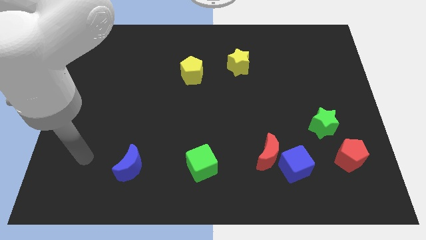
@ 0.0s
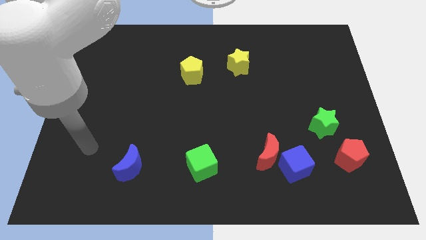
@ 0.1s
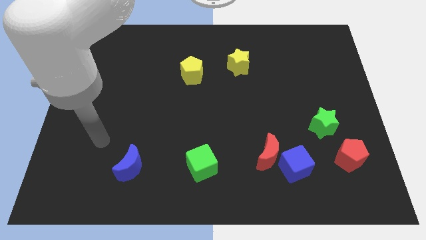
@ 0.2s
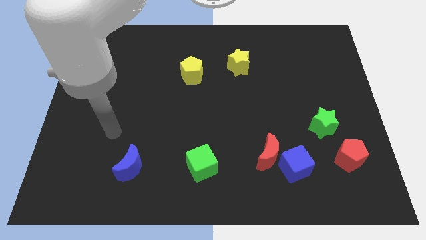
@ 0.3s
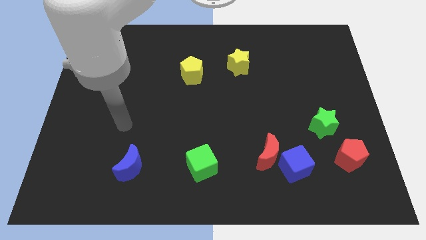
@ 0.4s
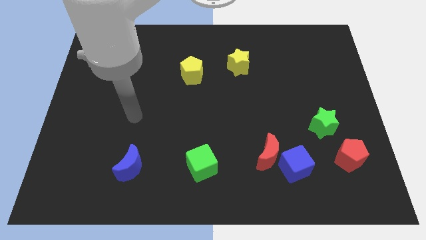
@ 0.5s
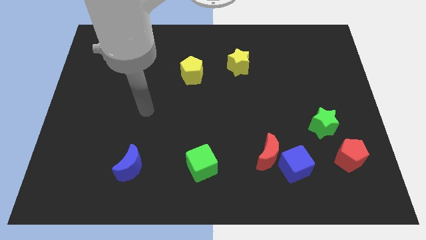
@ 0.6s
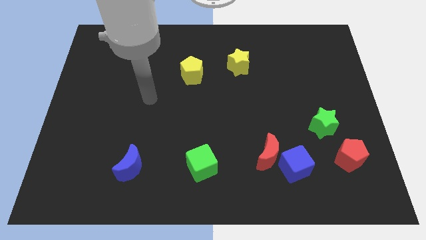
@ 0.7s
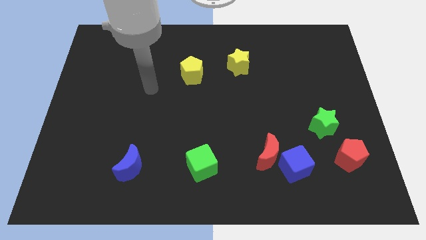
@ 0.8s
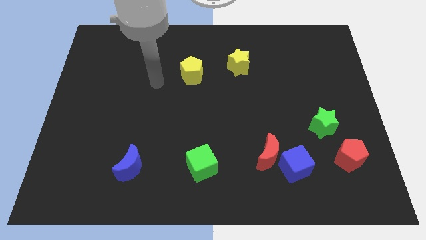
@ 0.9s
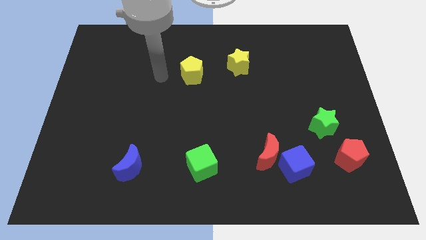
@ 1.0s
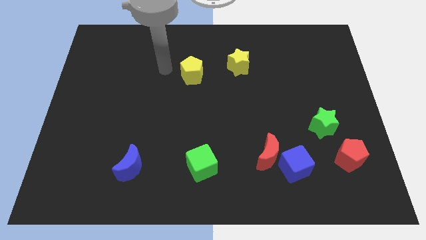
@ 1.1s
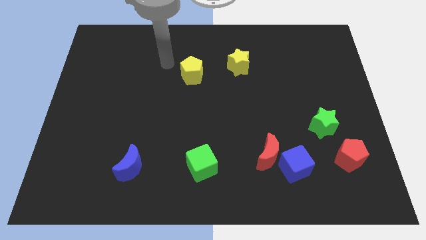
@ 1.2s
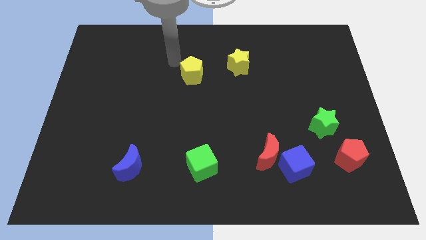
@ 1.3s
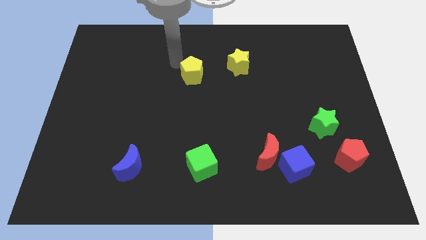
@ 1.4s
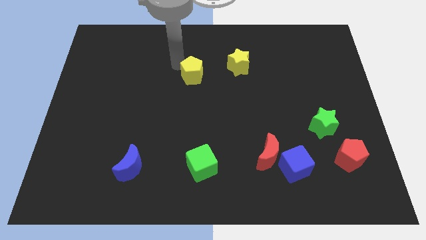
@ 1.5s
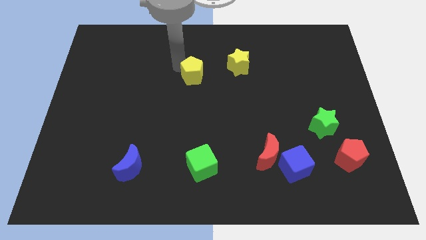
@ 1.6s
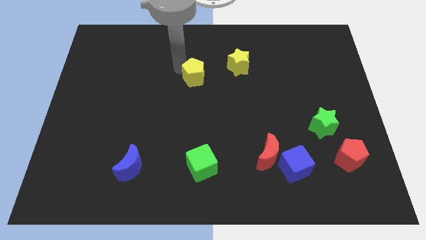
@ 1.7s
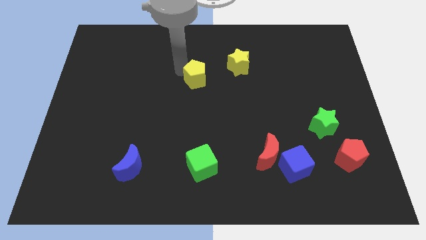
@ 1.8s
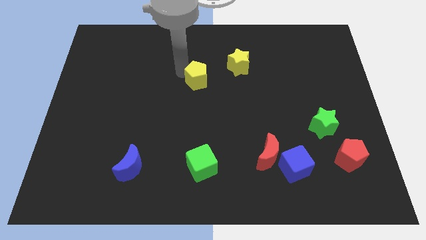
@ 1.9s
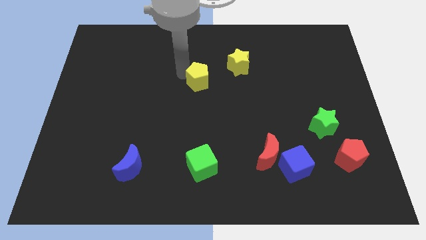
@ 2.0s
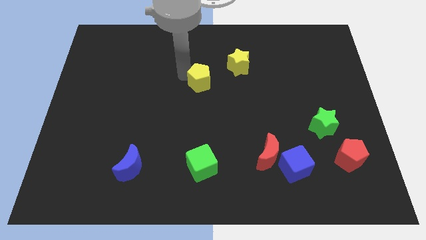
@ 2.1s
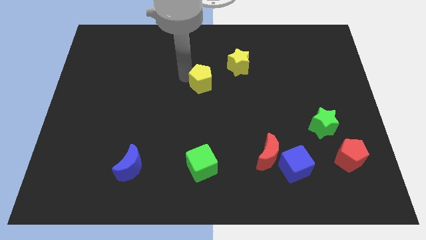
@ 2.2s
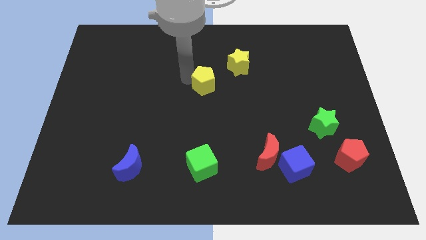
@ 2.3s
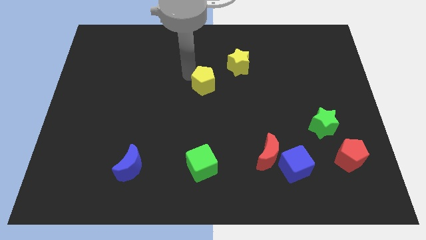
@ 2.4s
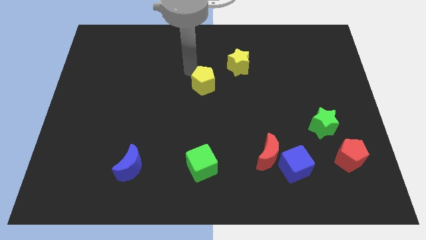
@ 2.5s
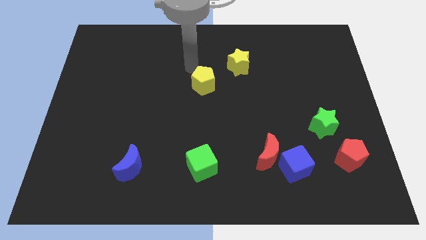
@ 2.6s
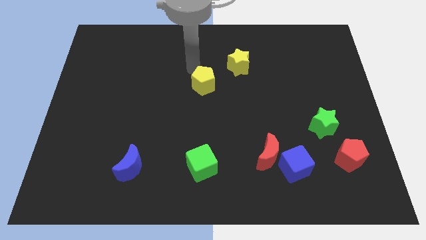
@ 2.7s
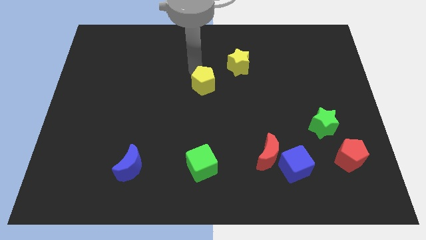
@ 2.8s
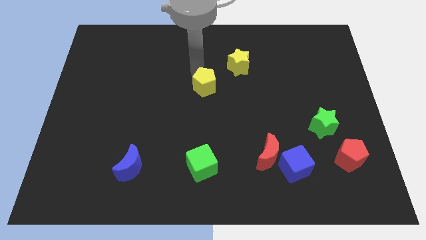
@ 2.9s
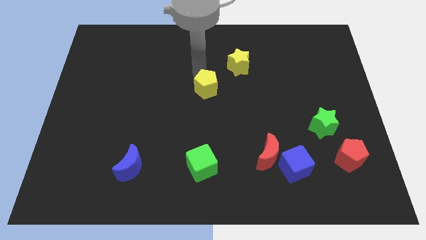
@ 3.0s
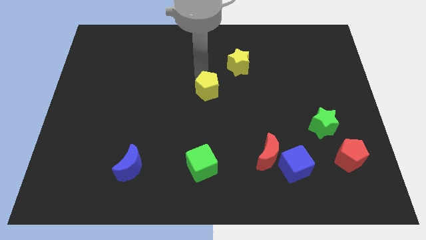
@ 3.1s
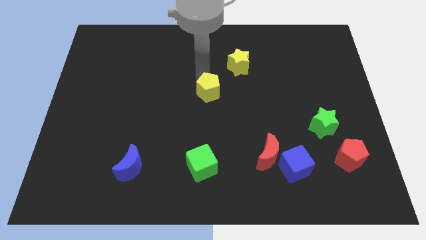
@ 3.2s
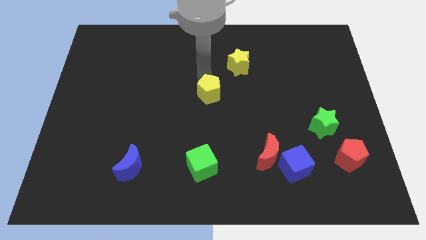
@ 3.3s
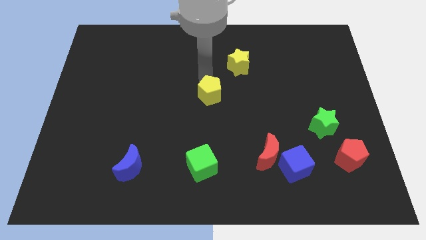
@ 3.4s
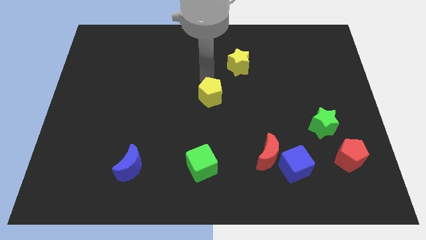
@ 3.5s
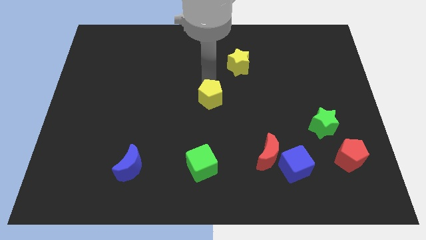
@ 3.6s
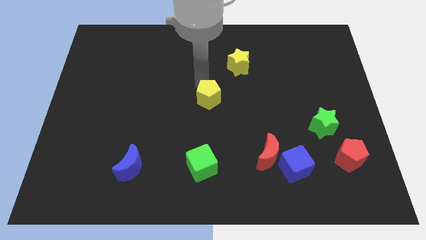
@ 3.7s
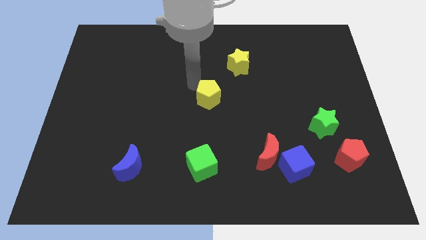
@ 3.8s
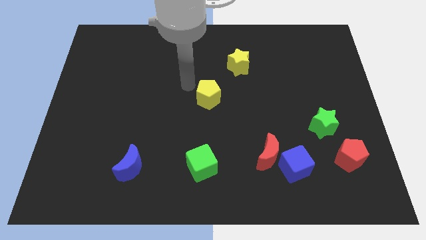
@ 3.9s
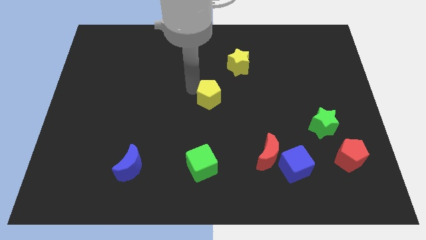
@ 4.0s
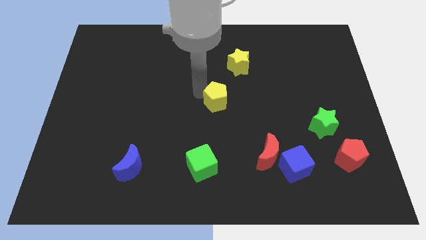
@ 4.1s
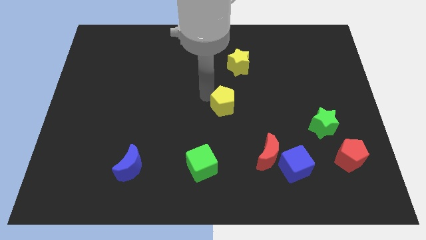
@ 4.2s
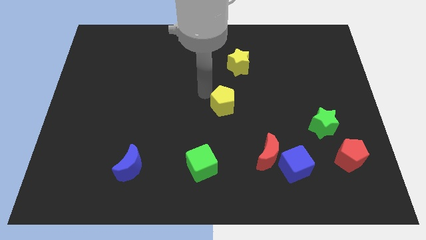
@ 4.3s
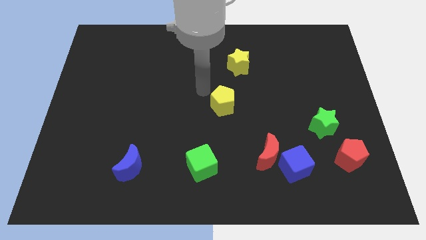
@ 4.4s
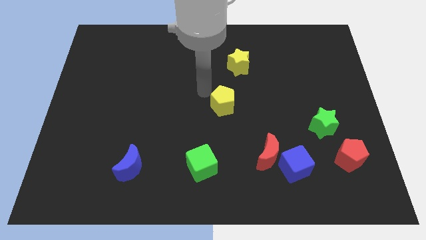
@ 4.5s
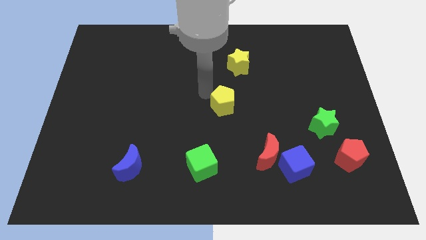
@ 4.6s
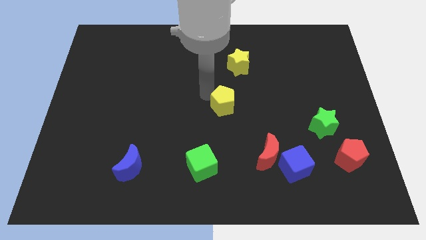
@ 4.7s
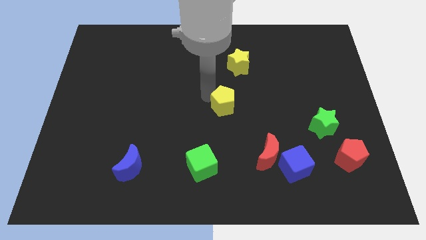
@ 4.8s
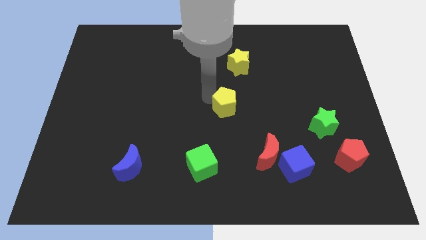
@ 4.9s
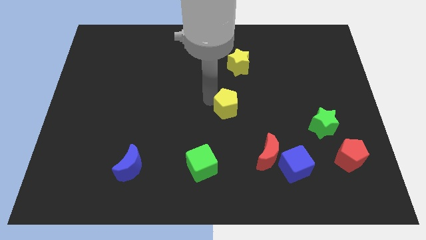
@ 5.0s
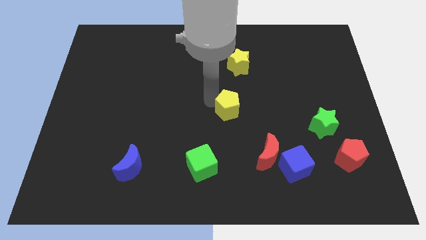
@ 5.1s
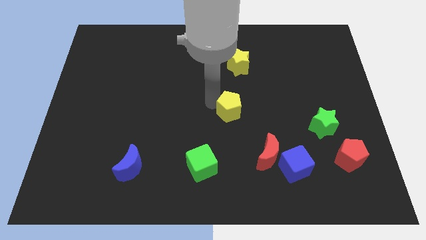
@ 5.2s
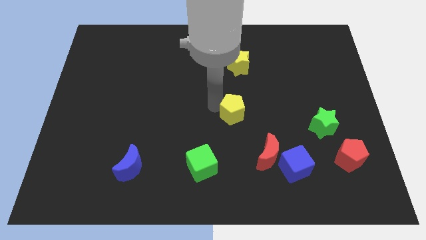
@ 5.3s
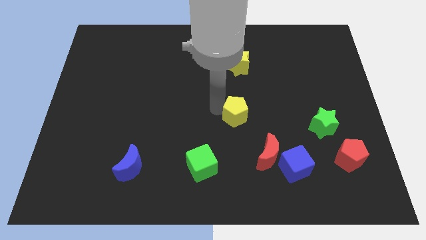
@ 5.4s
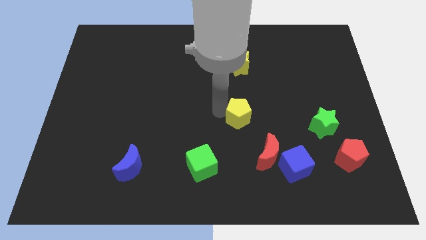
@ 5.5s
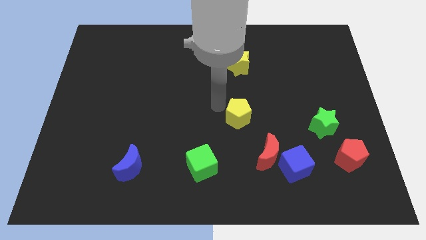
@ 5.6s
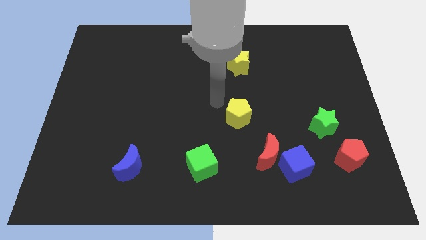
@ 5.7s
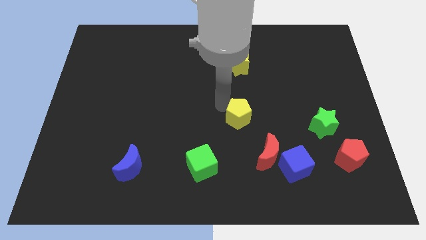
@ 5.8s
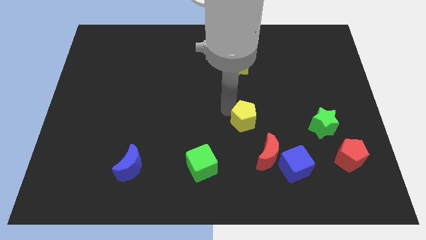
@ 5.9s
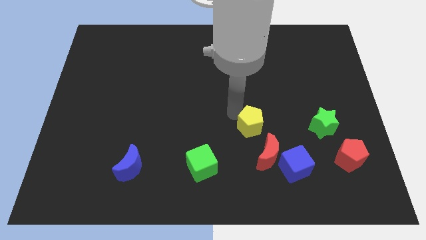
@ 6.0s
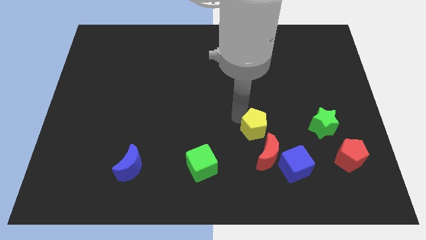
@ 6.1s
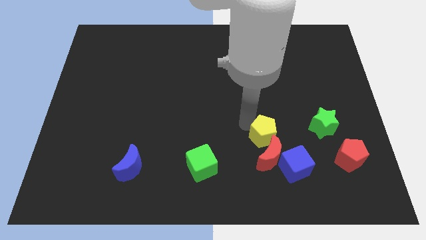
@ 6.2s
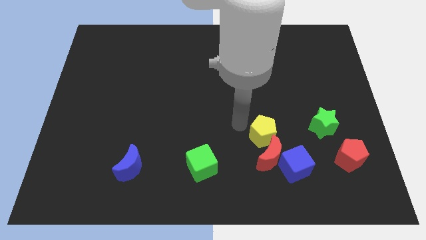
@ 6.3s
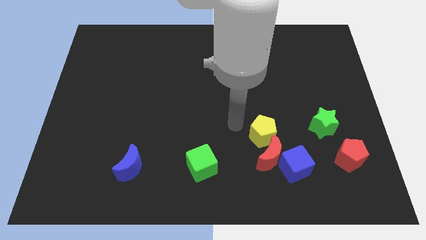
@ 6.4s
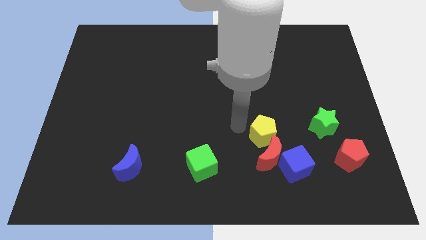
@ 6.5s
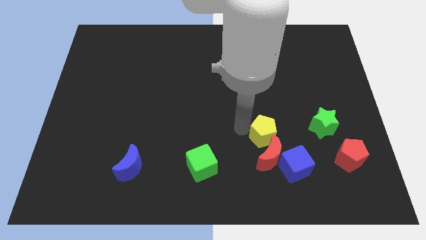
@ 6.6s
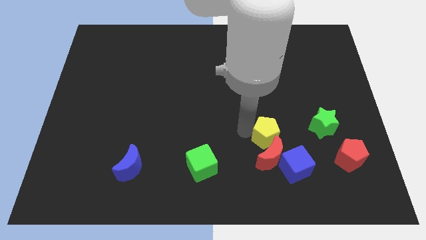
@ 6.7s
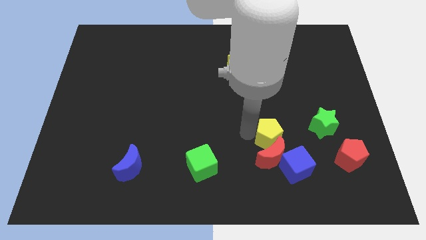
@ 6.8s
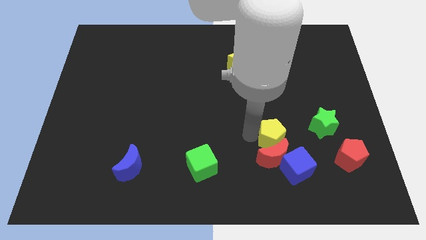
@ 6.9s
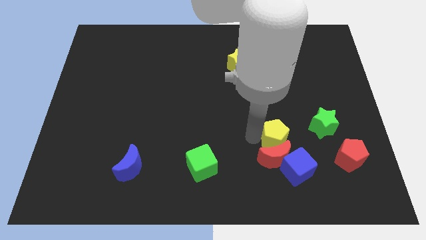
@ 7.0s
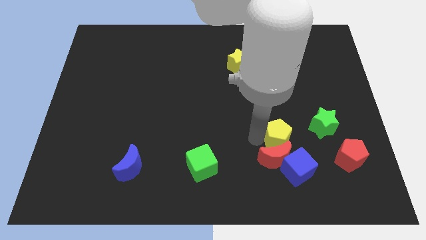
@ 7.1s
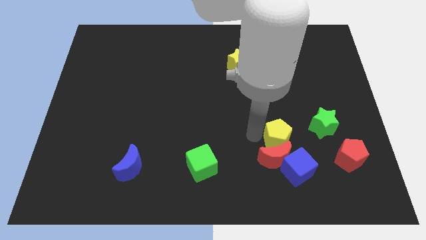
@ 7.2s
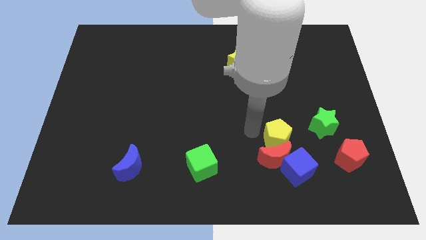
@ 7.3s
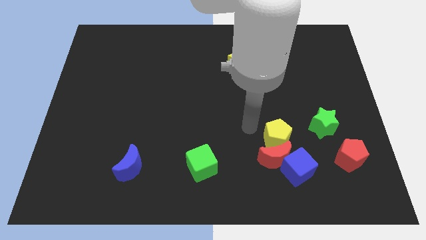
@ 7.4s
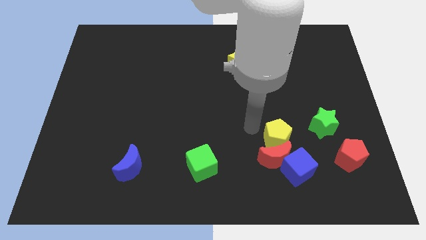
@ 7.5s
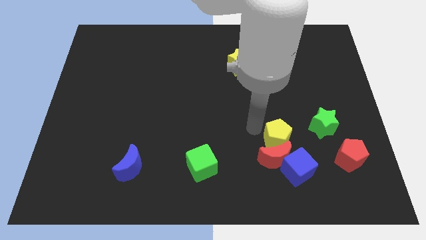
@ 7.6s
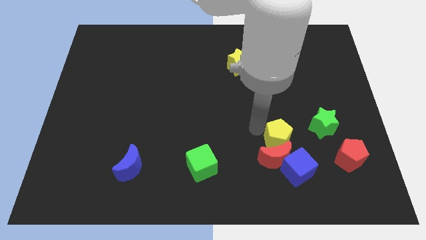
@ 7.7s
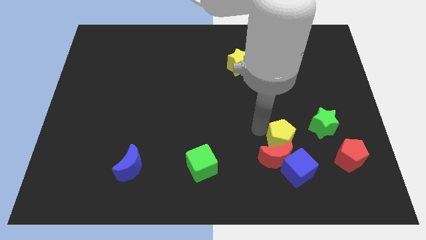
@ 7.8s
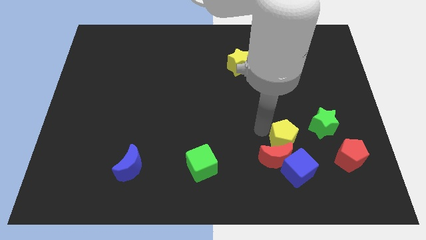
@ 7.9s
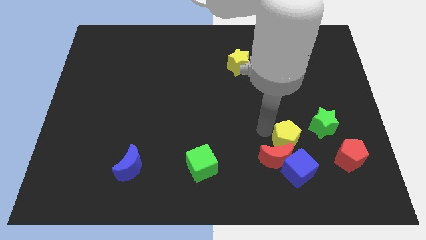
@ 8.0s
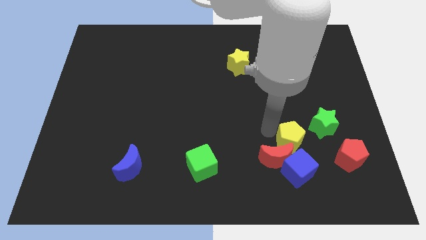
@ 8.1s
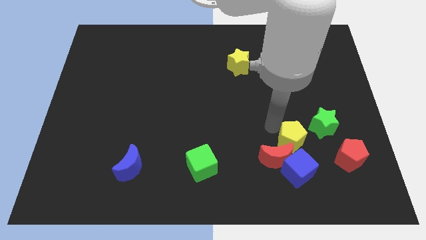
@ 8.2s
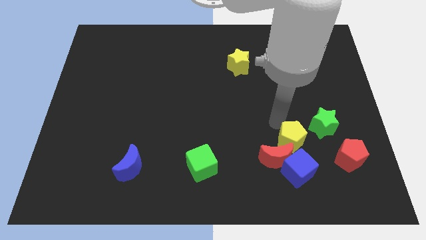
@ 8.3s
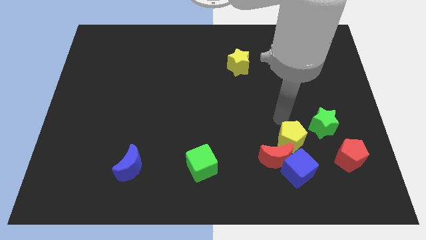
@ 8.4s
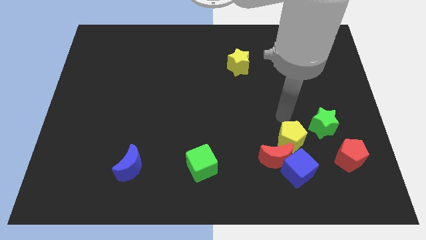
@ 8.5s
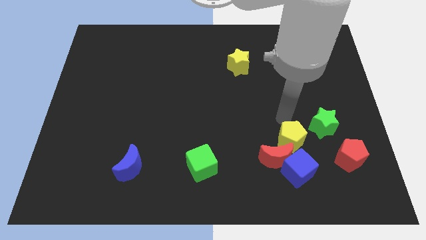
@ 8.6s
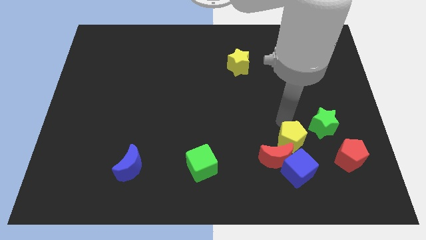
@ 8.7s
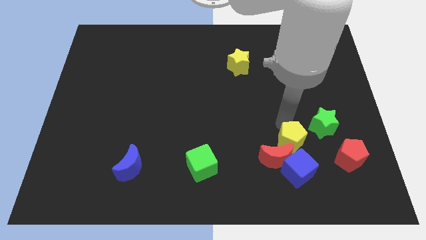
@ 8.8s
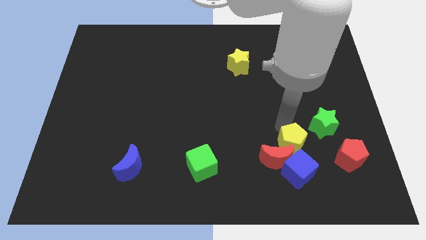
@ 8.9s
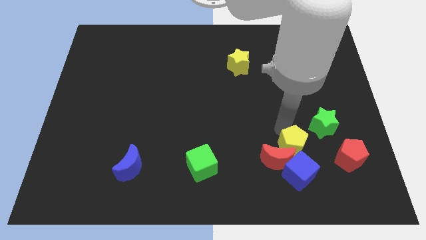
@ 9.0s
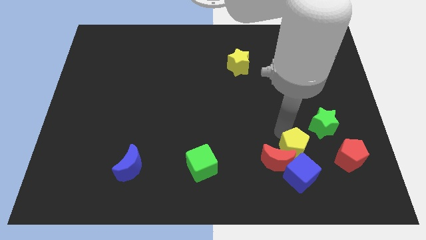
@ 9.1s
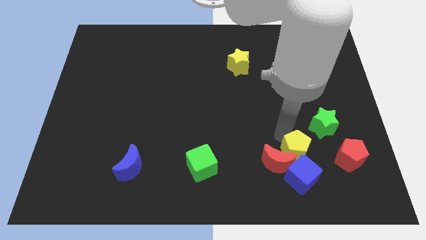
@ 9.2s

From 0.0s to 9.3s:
slide the yellow pentagon next to the blue cube
